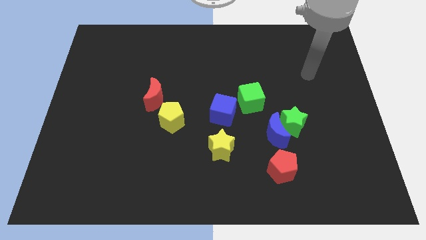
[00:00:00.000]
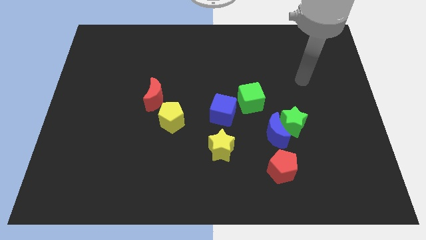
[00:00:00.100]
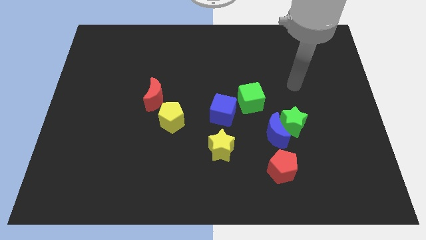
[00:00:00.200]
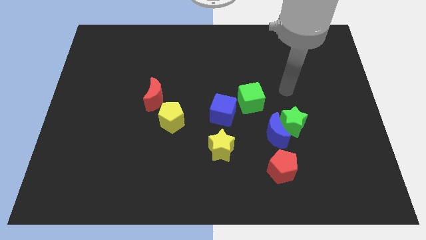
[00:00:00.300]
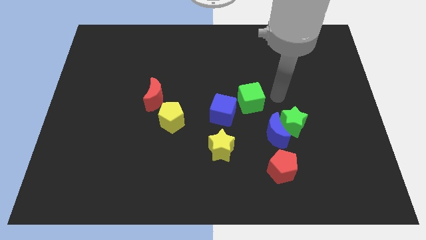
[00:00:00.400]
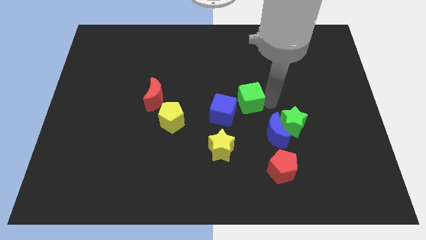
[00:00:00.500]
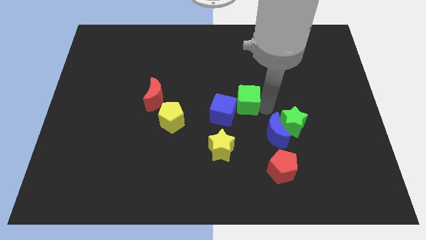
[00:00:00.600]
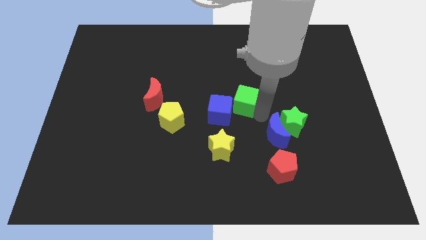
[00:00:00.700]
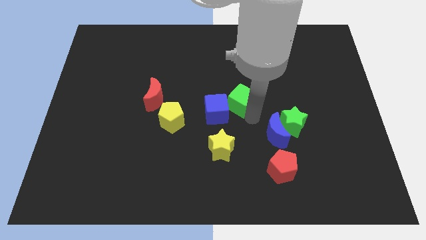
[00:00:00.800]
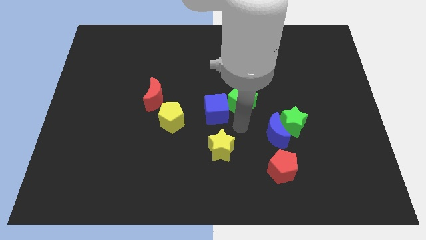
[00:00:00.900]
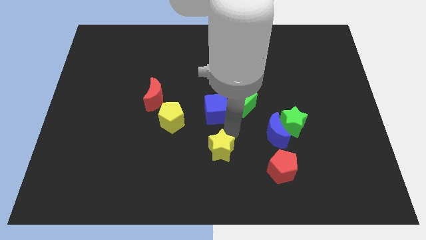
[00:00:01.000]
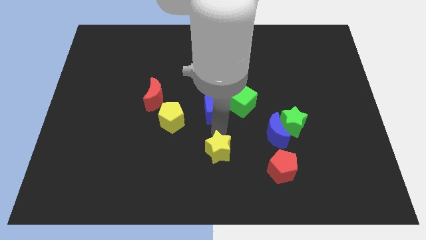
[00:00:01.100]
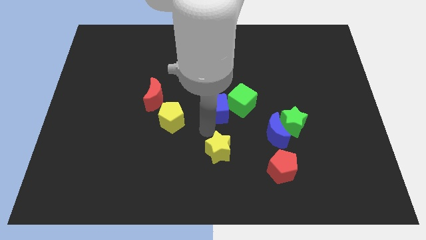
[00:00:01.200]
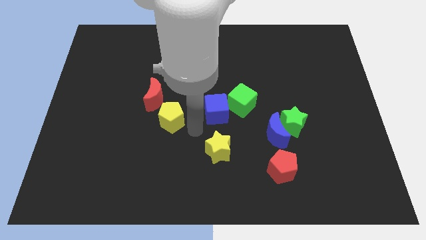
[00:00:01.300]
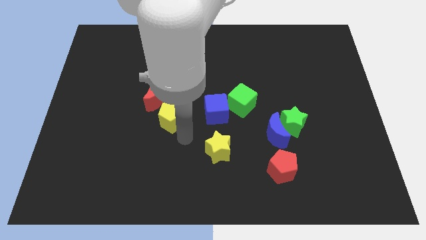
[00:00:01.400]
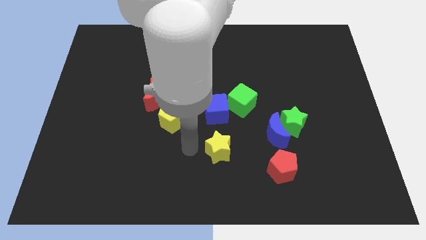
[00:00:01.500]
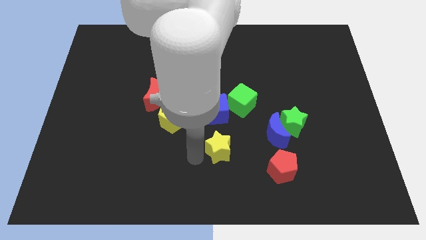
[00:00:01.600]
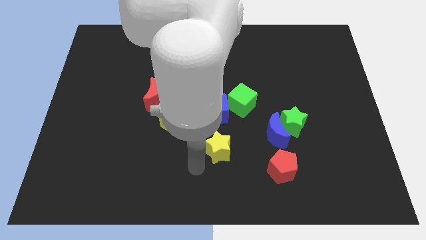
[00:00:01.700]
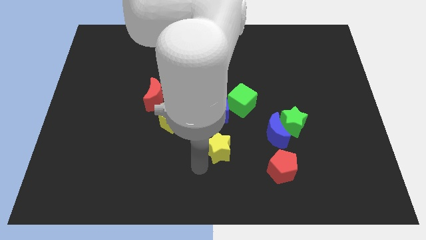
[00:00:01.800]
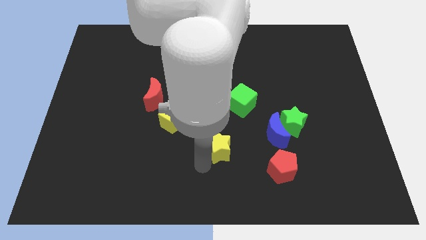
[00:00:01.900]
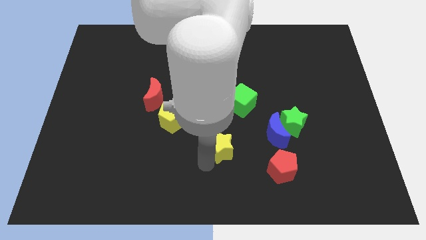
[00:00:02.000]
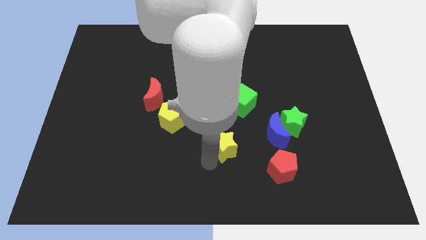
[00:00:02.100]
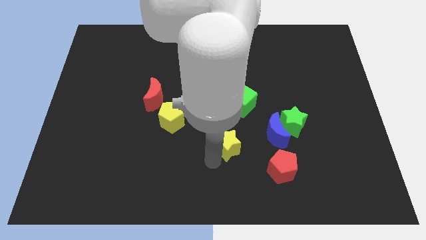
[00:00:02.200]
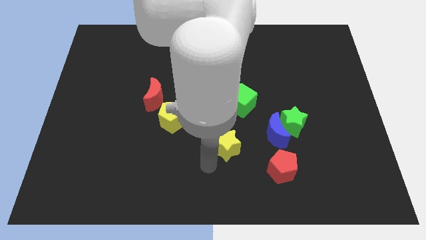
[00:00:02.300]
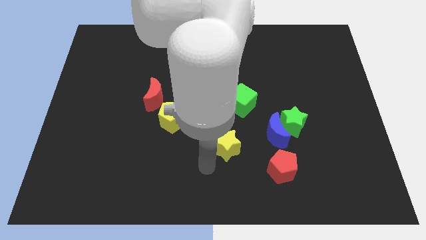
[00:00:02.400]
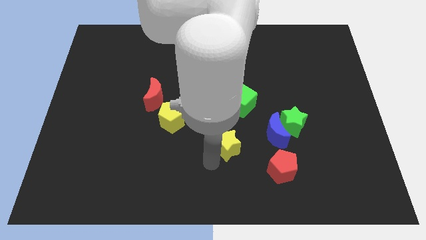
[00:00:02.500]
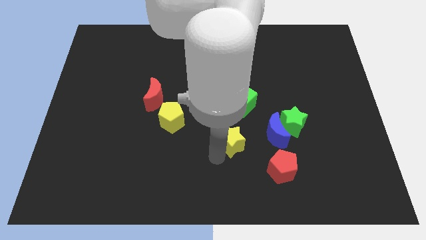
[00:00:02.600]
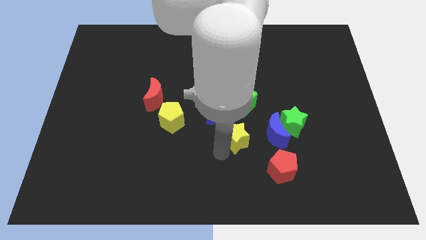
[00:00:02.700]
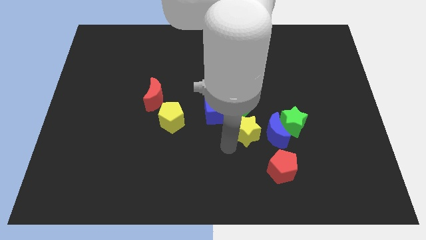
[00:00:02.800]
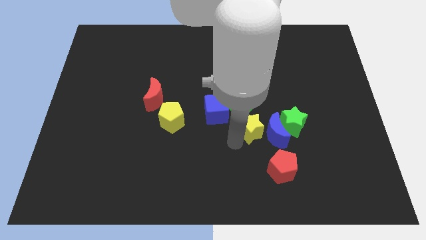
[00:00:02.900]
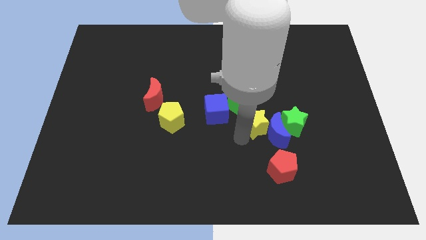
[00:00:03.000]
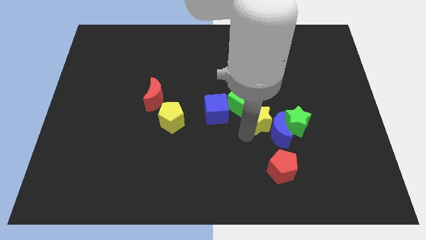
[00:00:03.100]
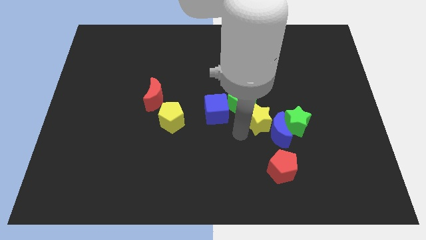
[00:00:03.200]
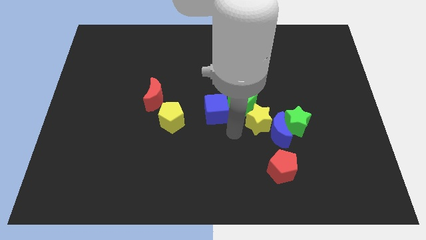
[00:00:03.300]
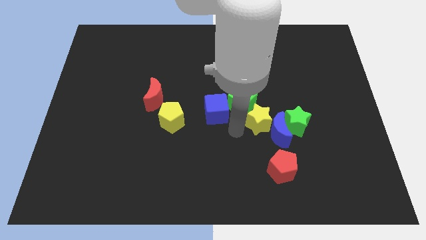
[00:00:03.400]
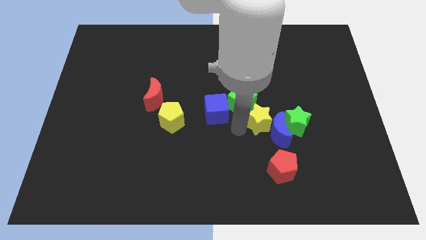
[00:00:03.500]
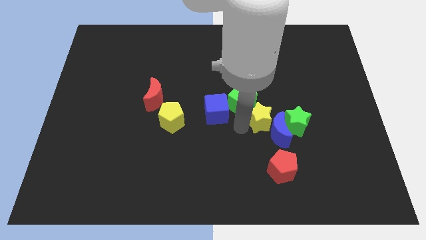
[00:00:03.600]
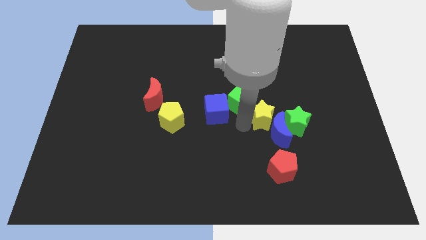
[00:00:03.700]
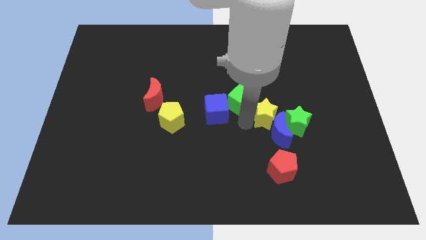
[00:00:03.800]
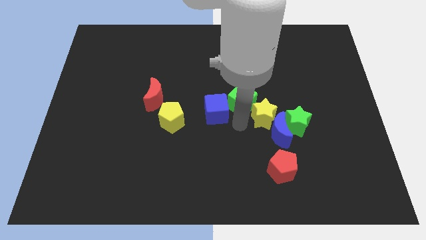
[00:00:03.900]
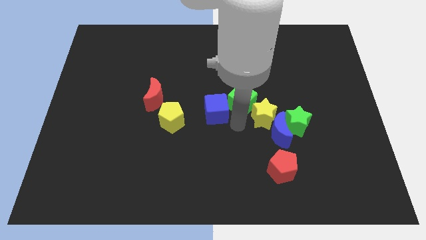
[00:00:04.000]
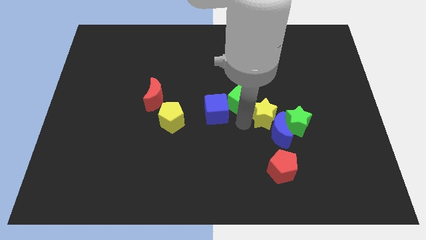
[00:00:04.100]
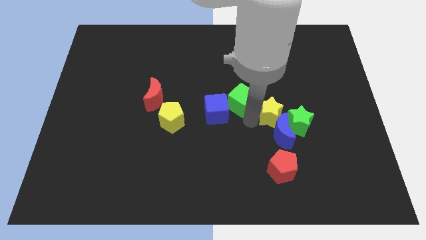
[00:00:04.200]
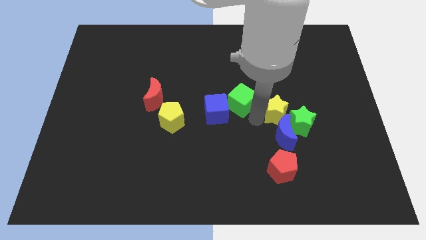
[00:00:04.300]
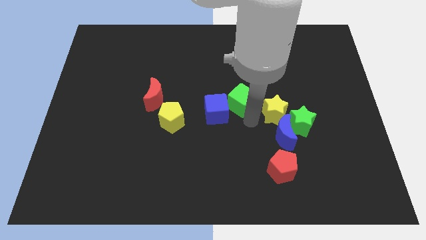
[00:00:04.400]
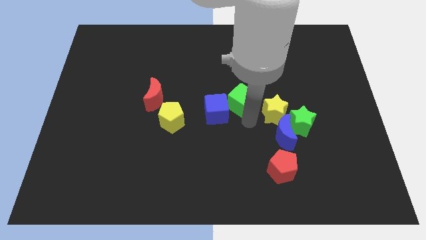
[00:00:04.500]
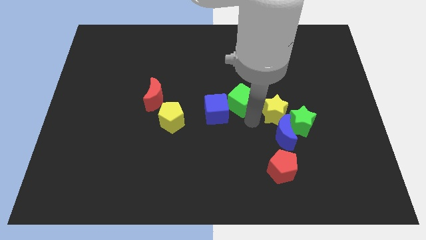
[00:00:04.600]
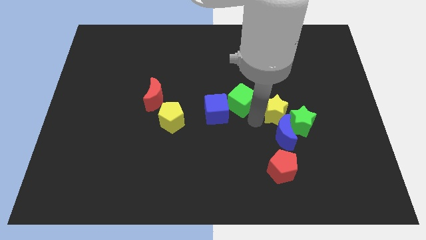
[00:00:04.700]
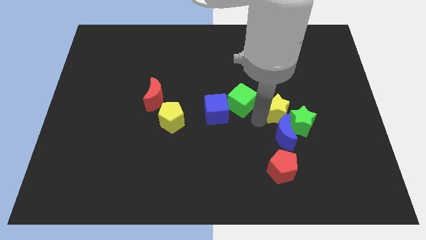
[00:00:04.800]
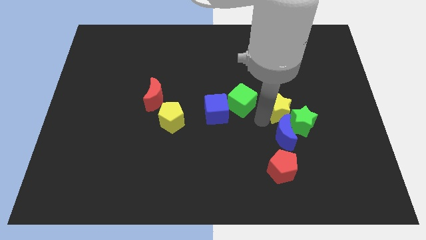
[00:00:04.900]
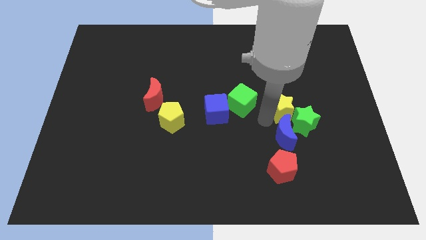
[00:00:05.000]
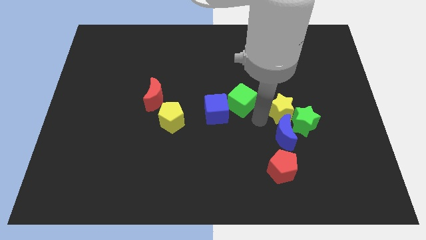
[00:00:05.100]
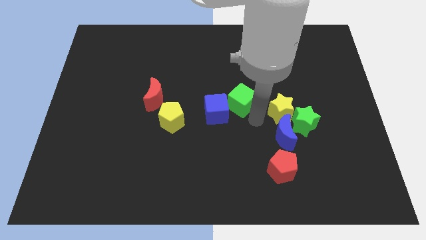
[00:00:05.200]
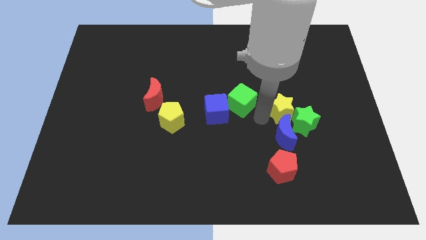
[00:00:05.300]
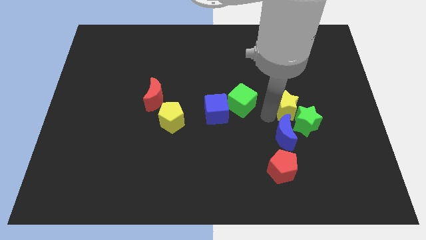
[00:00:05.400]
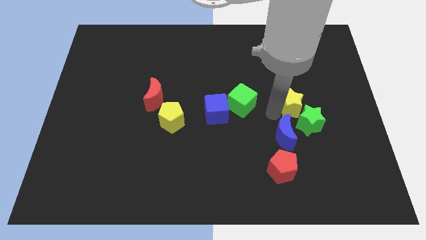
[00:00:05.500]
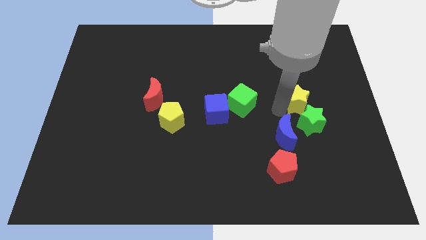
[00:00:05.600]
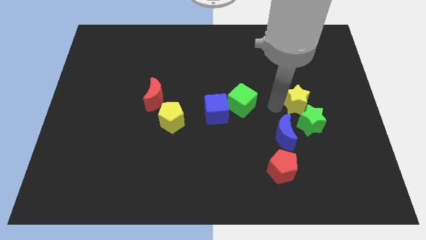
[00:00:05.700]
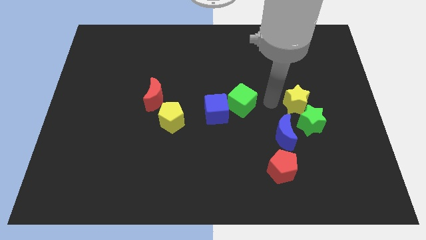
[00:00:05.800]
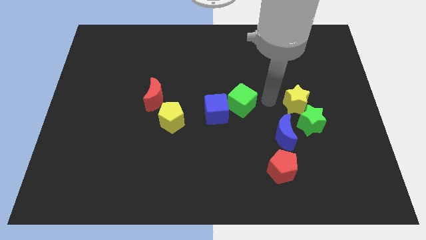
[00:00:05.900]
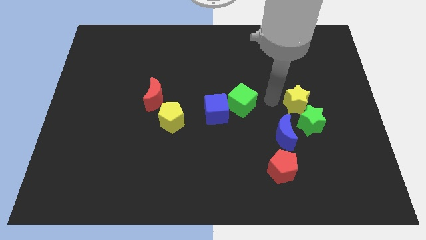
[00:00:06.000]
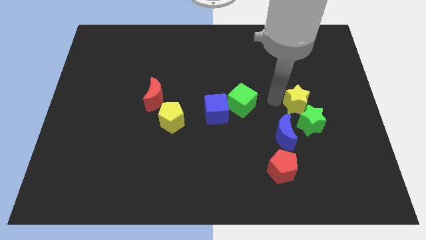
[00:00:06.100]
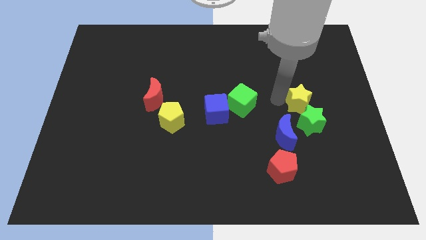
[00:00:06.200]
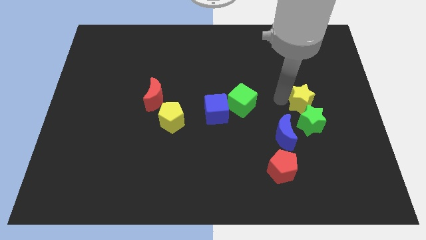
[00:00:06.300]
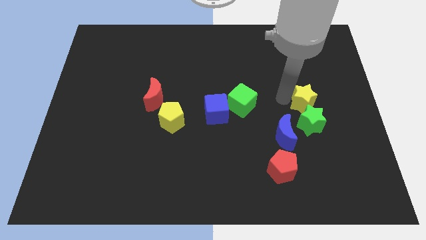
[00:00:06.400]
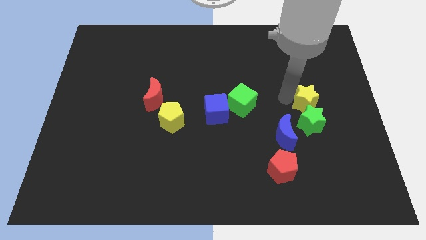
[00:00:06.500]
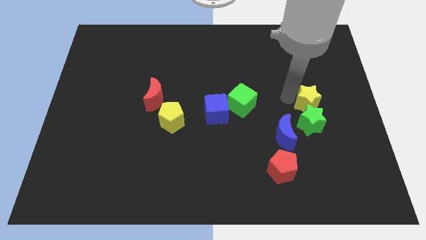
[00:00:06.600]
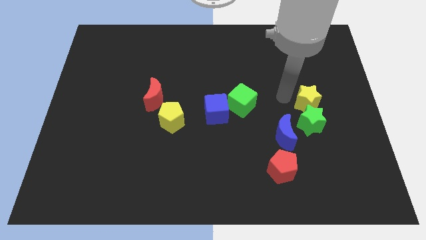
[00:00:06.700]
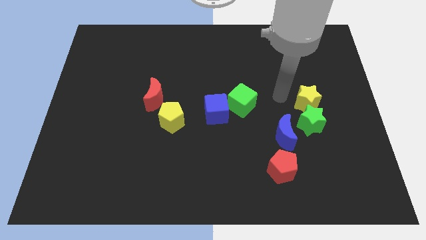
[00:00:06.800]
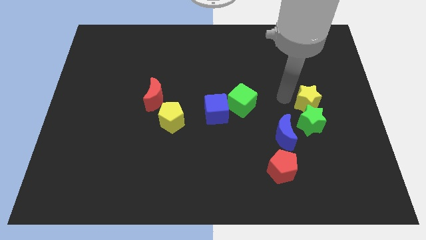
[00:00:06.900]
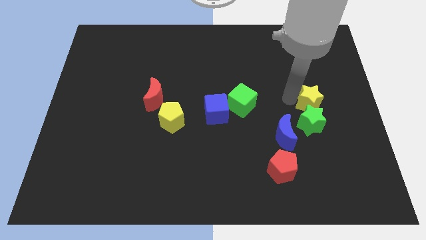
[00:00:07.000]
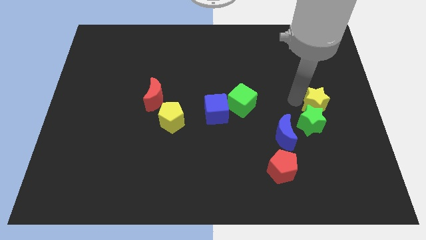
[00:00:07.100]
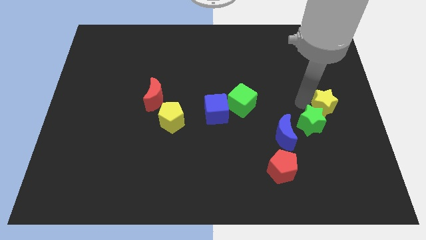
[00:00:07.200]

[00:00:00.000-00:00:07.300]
push the yellow star to the right side of the board

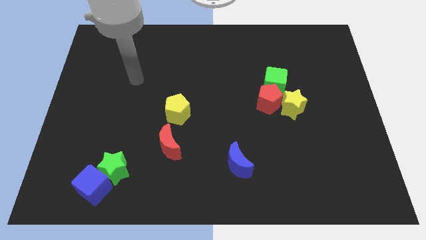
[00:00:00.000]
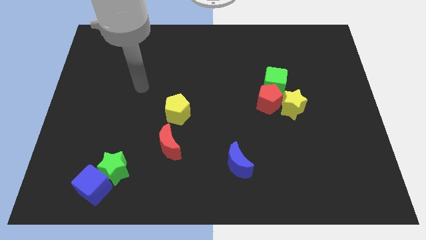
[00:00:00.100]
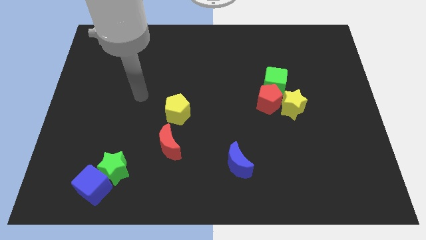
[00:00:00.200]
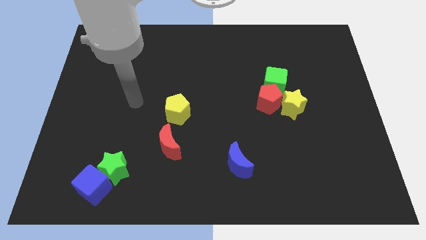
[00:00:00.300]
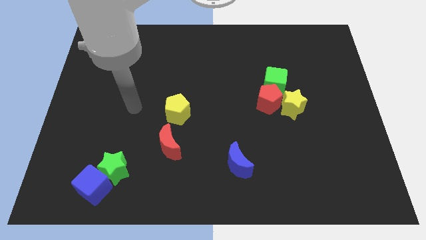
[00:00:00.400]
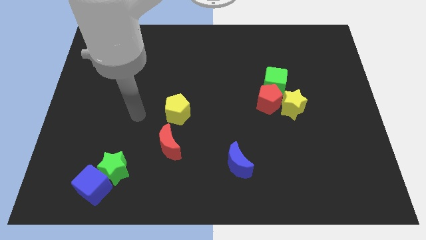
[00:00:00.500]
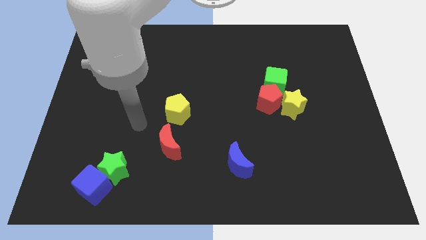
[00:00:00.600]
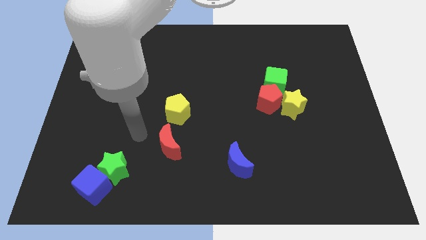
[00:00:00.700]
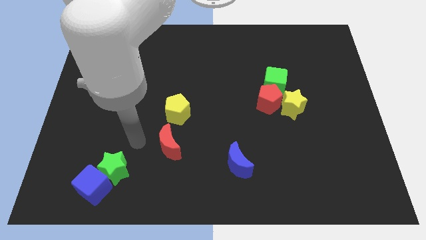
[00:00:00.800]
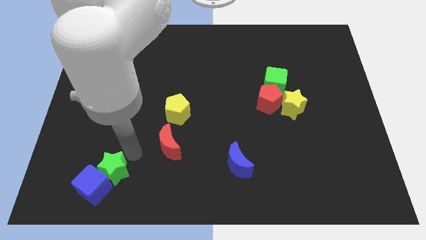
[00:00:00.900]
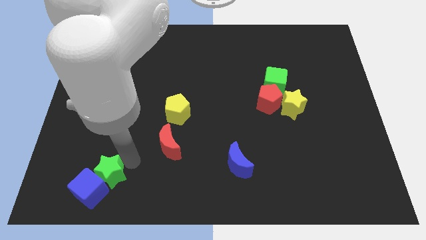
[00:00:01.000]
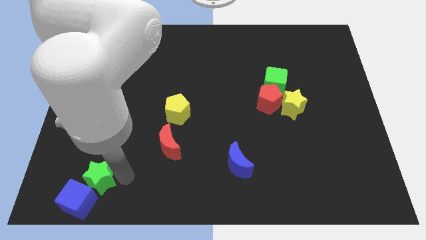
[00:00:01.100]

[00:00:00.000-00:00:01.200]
push the blue cube to the lower left corner
